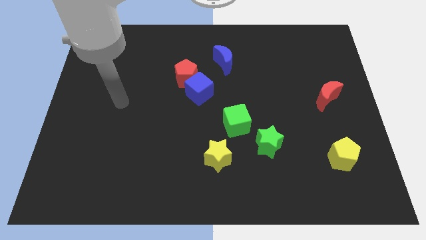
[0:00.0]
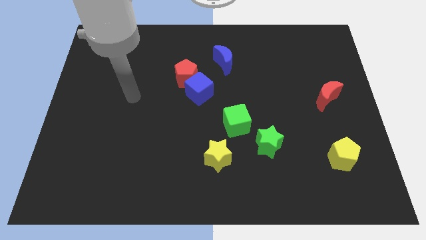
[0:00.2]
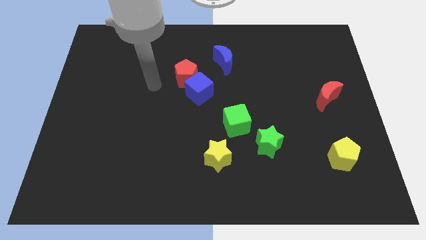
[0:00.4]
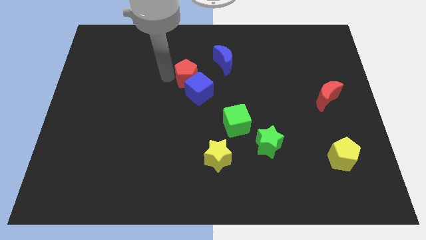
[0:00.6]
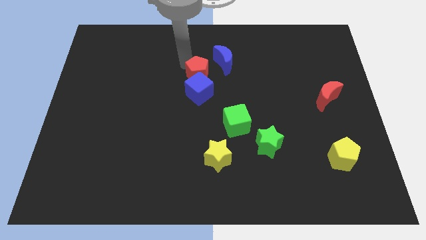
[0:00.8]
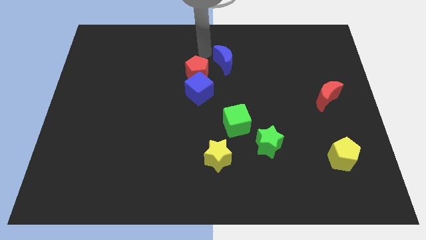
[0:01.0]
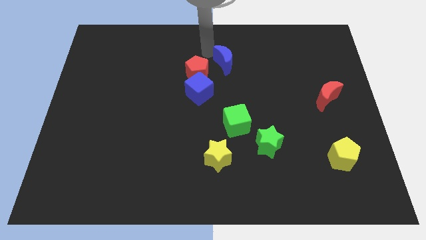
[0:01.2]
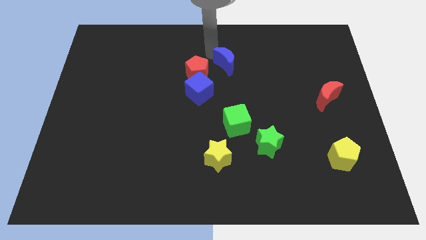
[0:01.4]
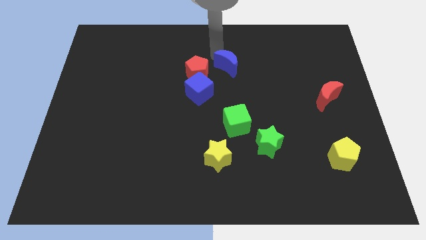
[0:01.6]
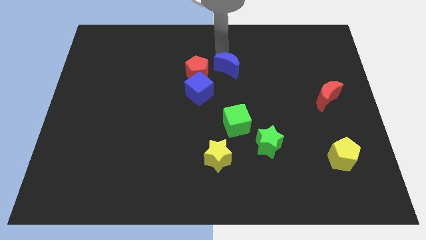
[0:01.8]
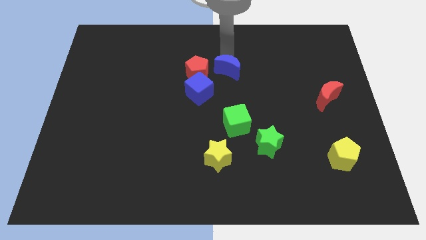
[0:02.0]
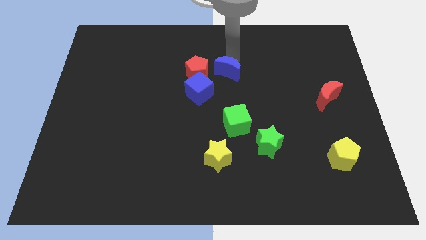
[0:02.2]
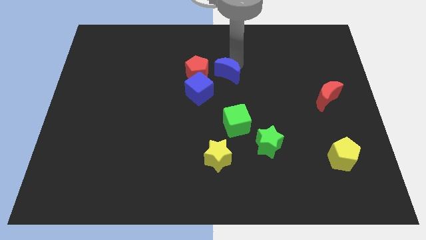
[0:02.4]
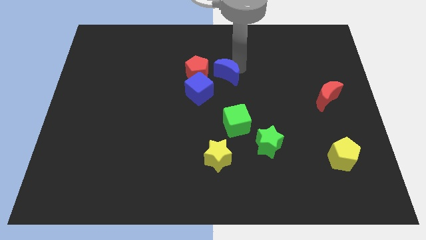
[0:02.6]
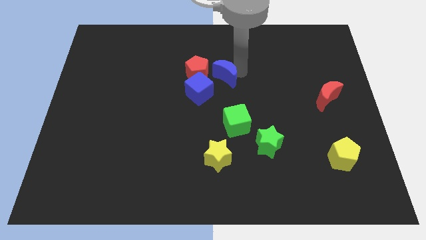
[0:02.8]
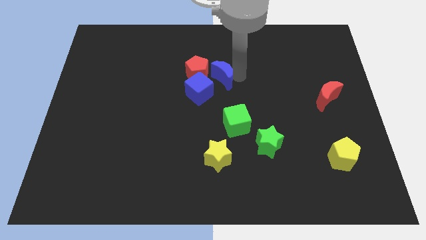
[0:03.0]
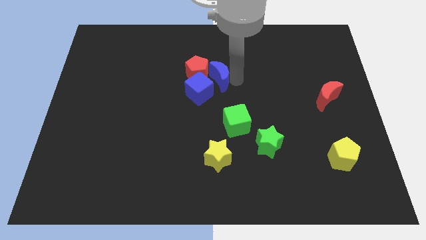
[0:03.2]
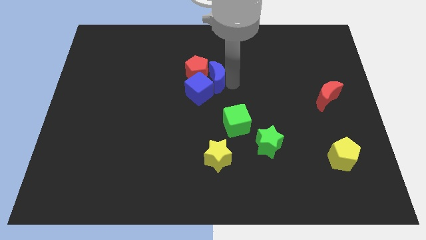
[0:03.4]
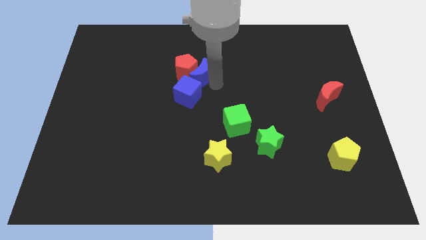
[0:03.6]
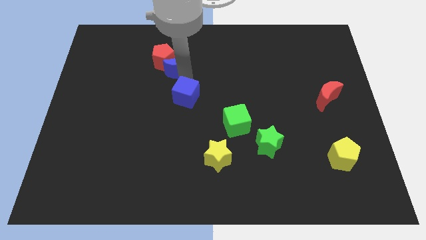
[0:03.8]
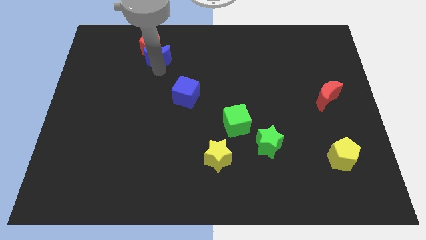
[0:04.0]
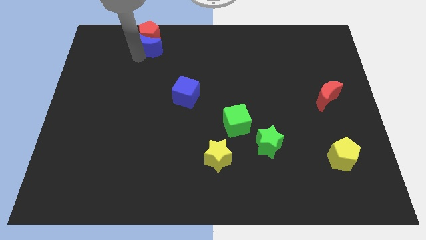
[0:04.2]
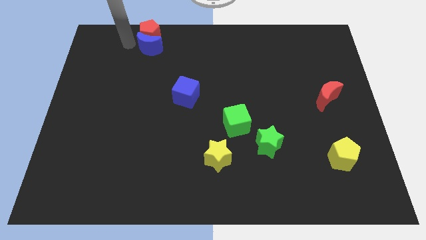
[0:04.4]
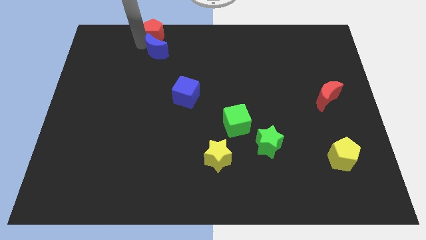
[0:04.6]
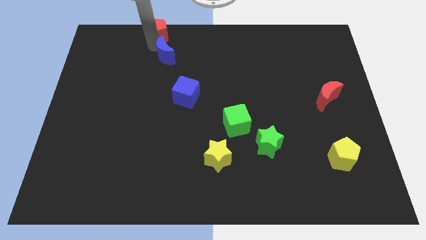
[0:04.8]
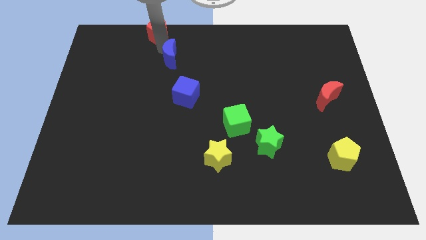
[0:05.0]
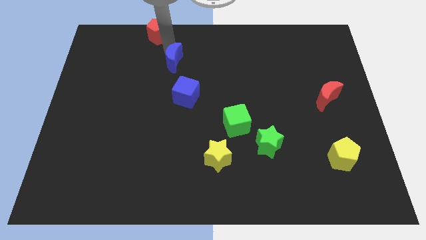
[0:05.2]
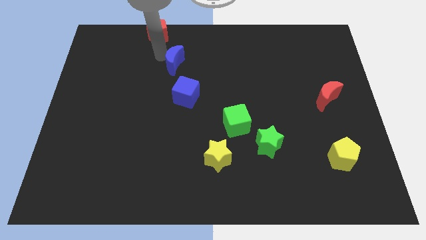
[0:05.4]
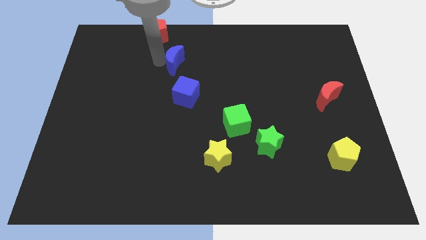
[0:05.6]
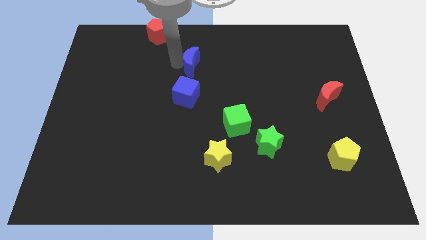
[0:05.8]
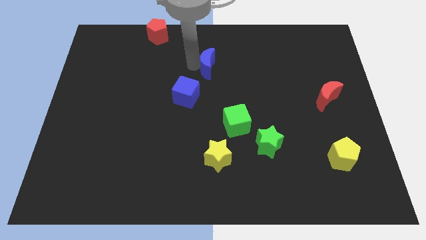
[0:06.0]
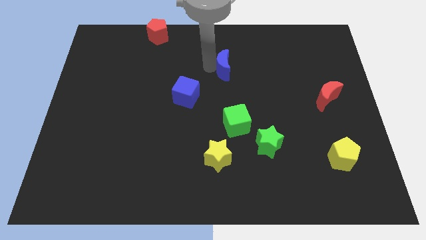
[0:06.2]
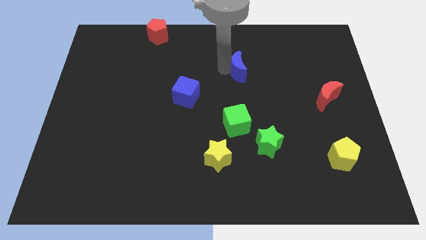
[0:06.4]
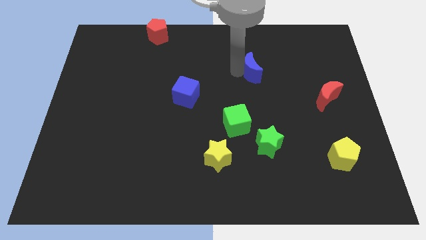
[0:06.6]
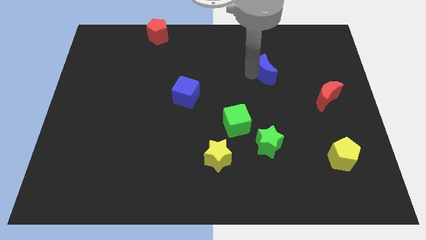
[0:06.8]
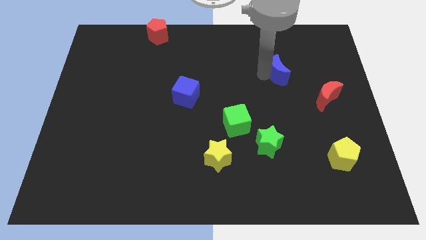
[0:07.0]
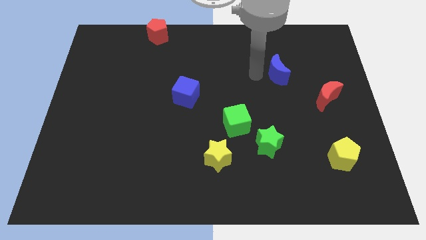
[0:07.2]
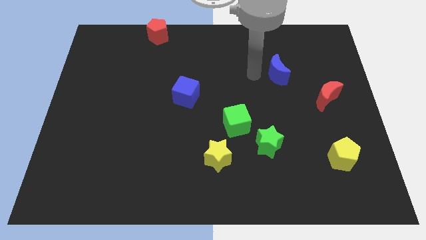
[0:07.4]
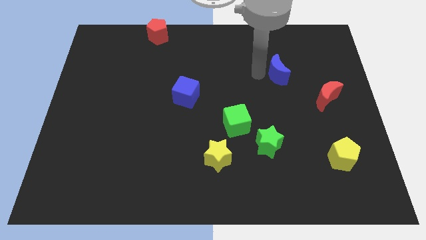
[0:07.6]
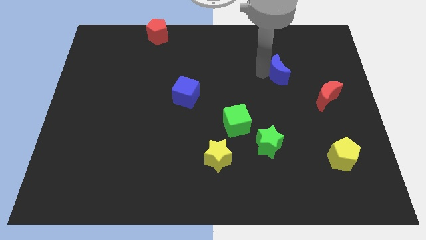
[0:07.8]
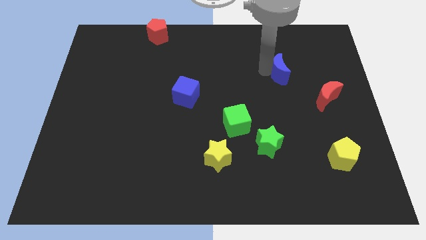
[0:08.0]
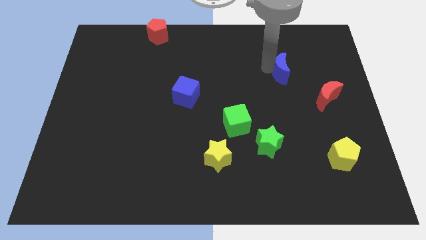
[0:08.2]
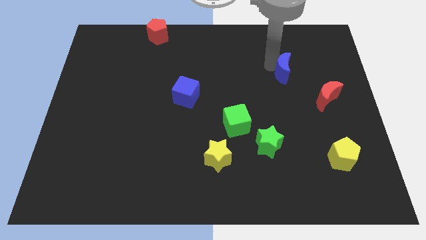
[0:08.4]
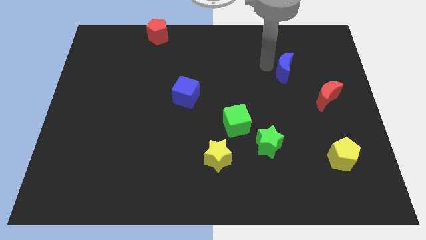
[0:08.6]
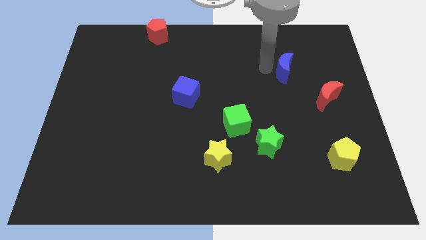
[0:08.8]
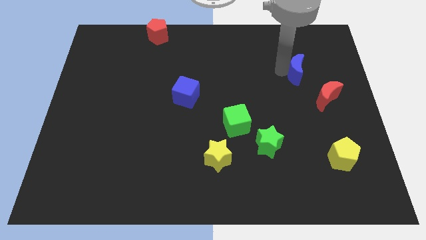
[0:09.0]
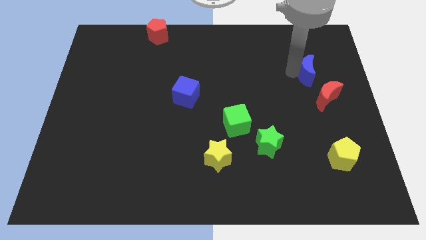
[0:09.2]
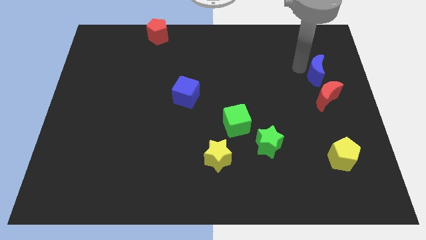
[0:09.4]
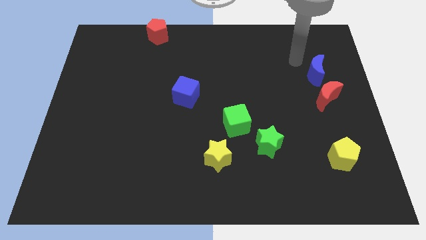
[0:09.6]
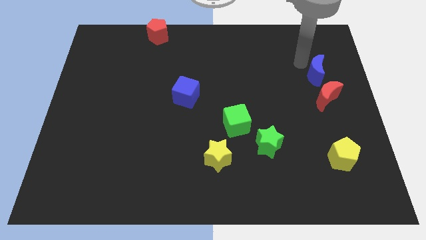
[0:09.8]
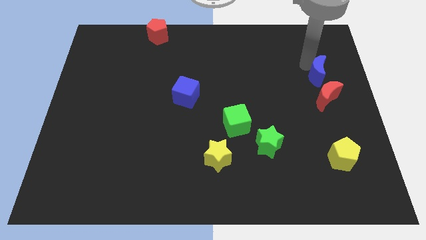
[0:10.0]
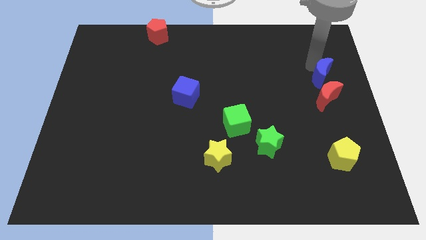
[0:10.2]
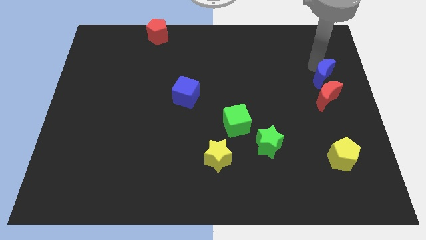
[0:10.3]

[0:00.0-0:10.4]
move the blue moon to the center right

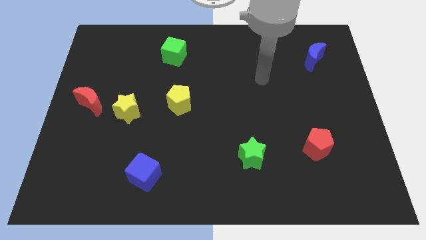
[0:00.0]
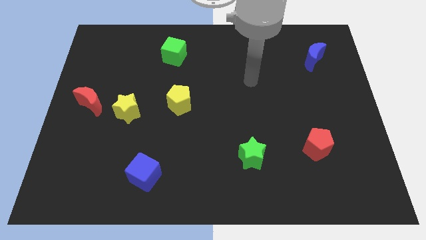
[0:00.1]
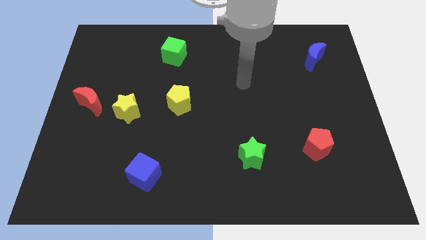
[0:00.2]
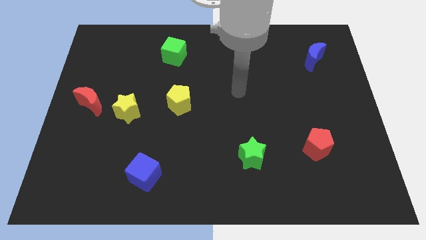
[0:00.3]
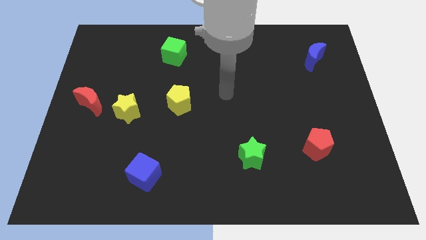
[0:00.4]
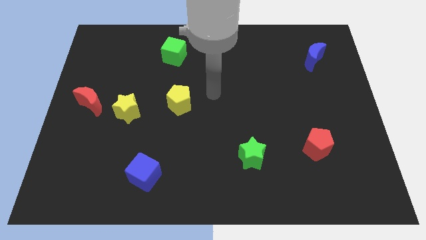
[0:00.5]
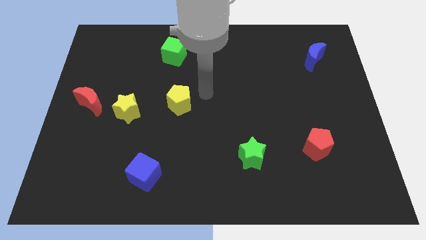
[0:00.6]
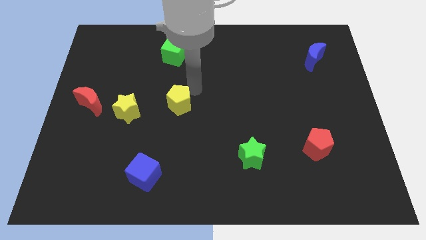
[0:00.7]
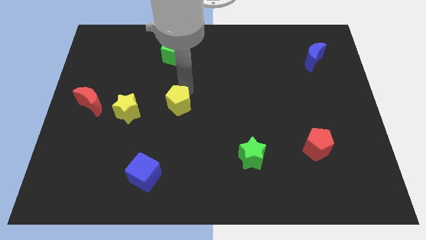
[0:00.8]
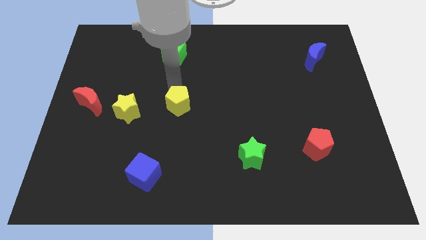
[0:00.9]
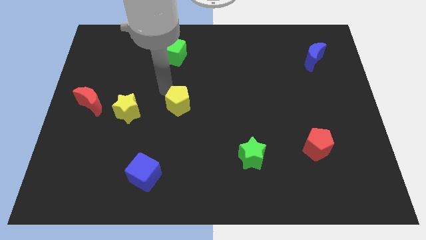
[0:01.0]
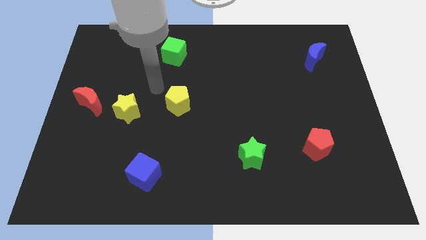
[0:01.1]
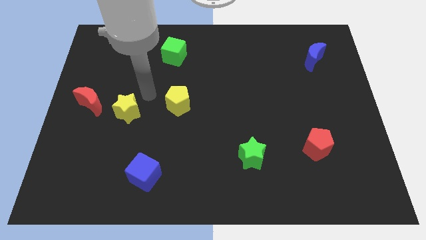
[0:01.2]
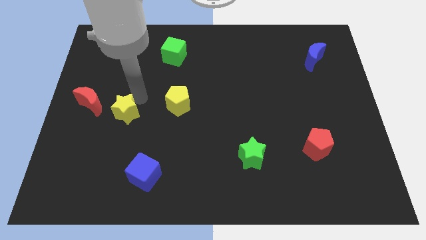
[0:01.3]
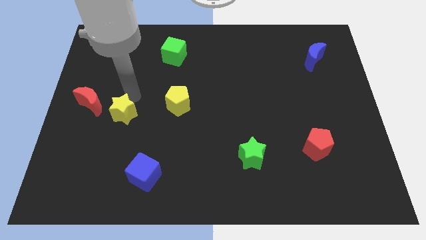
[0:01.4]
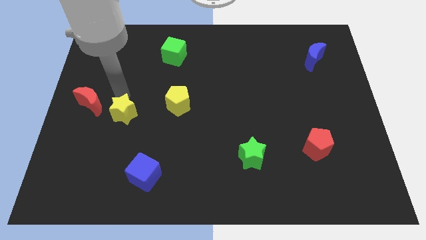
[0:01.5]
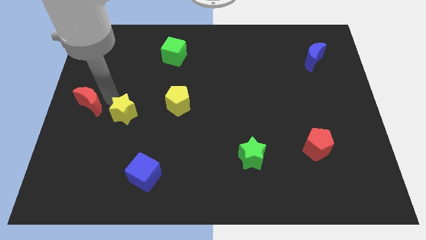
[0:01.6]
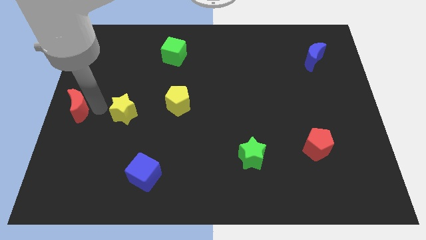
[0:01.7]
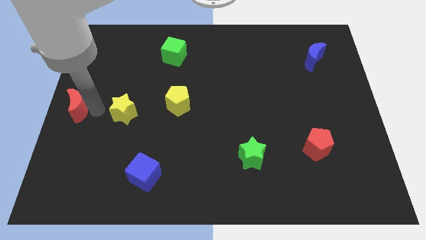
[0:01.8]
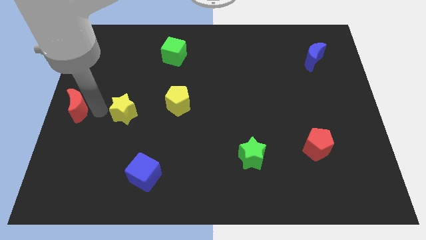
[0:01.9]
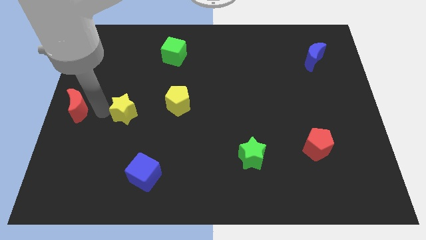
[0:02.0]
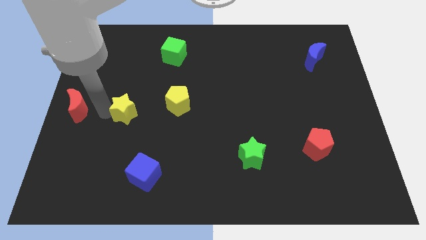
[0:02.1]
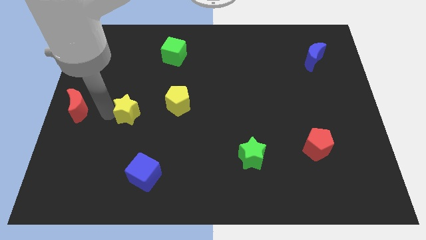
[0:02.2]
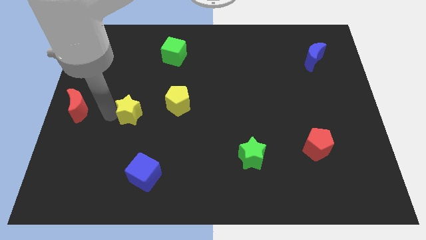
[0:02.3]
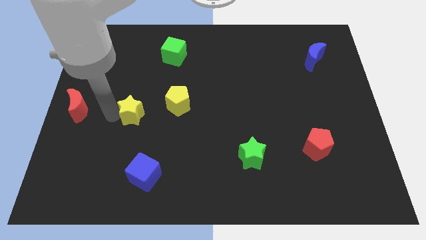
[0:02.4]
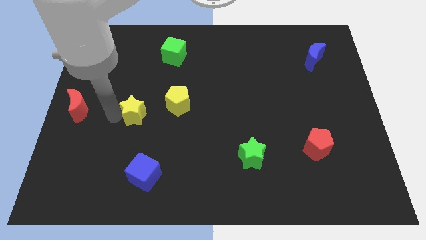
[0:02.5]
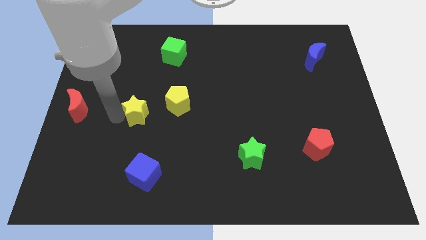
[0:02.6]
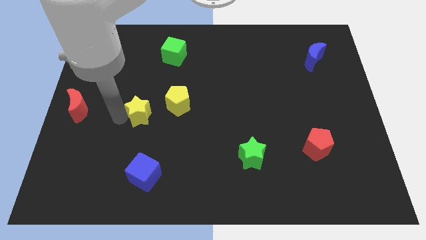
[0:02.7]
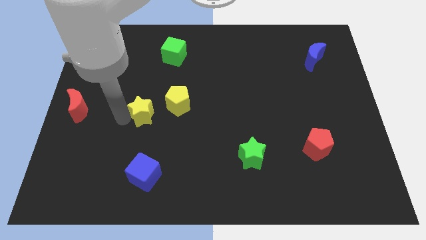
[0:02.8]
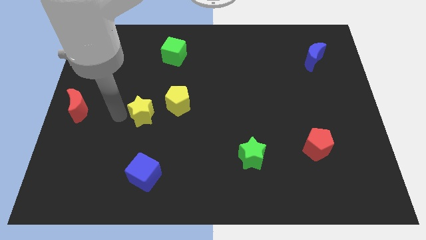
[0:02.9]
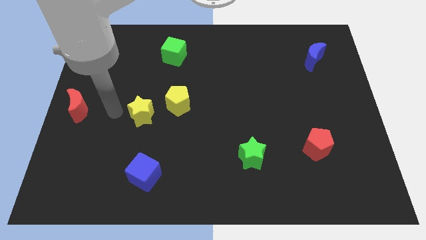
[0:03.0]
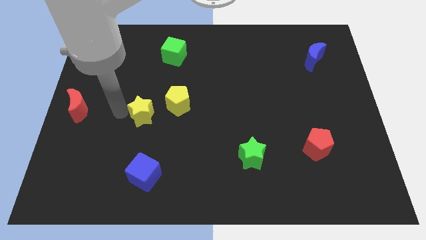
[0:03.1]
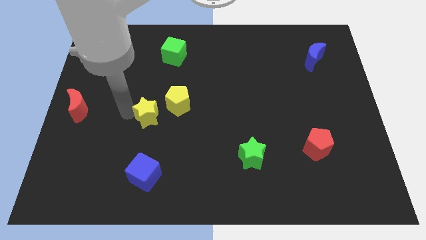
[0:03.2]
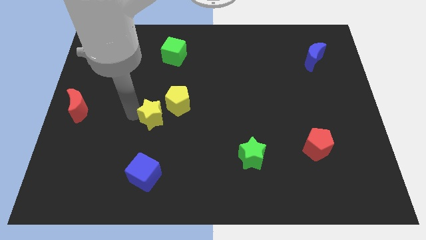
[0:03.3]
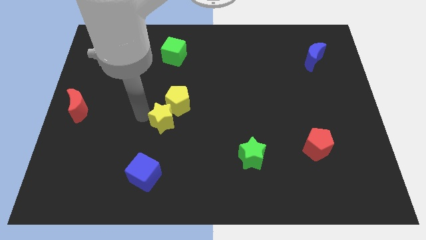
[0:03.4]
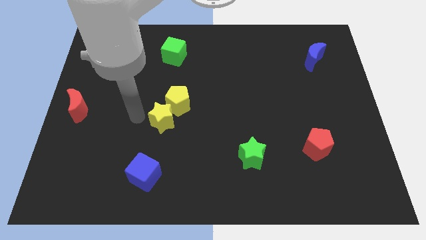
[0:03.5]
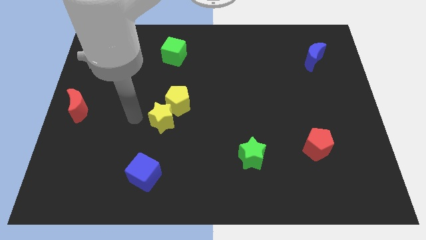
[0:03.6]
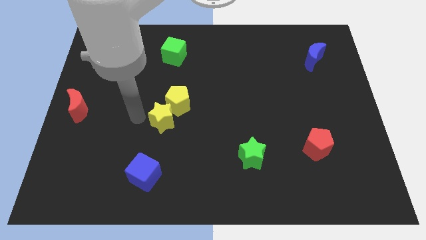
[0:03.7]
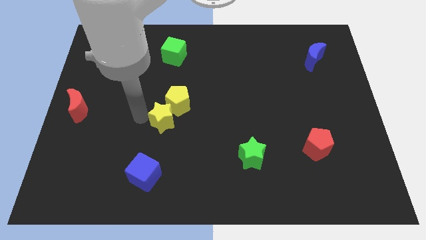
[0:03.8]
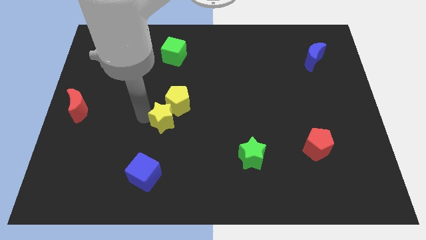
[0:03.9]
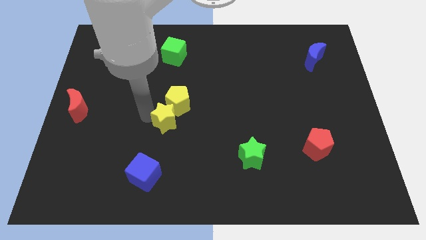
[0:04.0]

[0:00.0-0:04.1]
slide the yellow star to the center of the board
